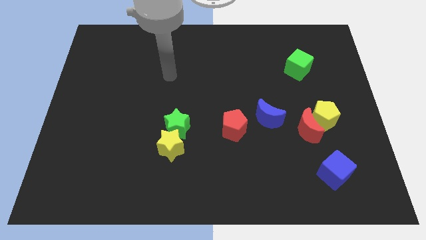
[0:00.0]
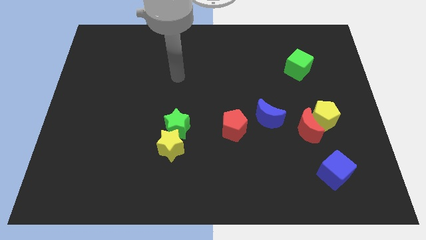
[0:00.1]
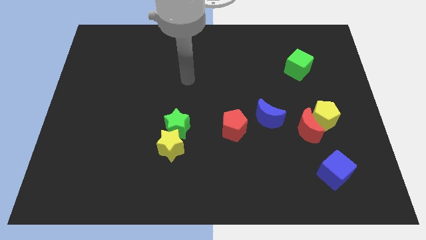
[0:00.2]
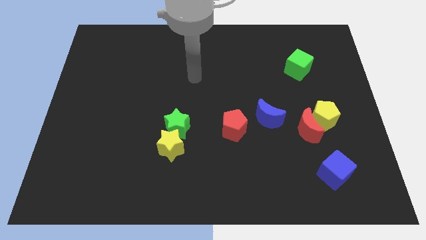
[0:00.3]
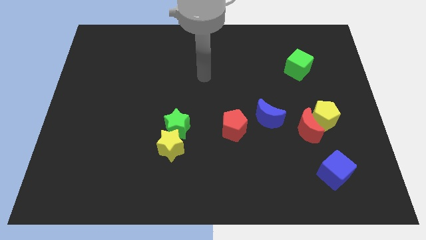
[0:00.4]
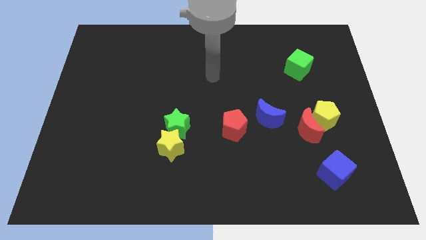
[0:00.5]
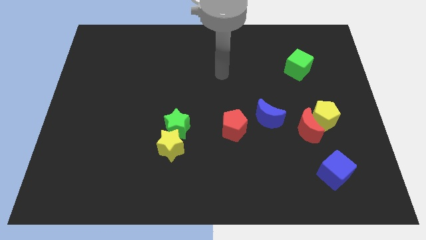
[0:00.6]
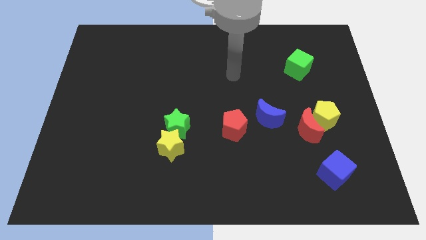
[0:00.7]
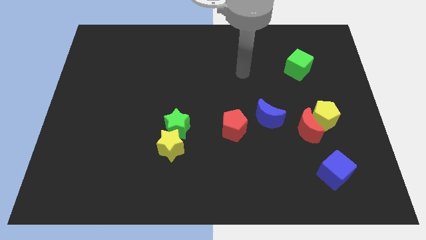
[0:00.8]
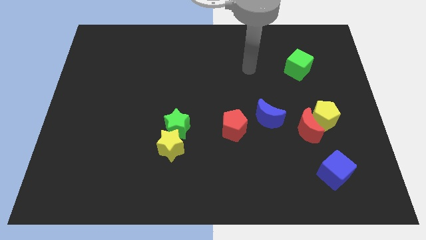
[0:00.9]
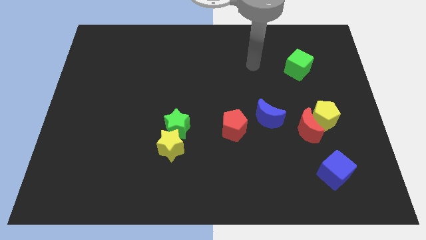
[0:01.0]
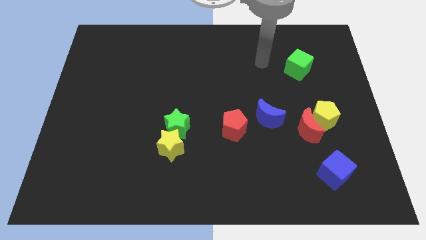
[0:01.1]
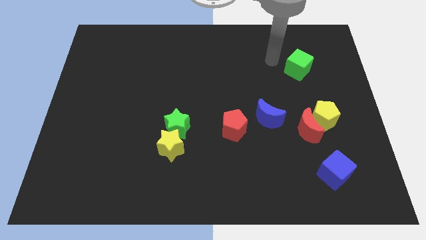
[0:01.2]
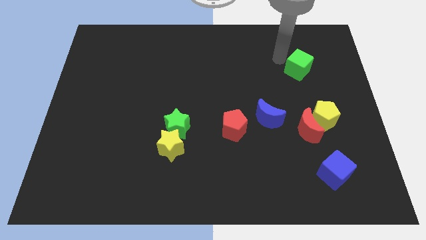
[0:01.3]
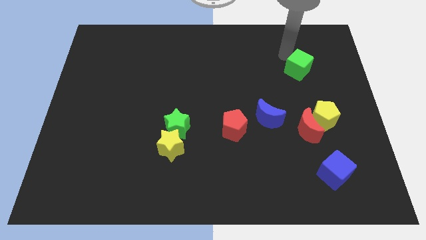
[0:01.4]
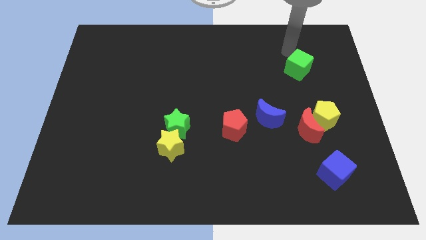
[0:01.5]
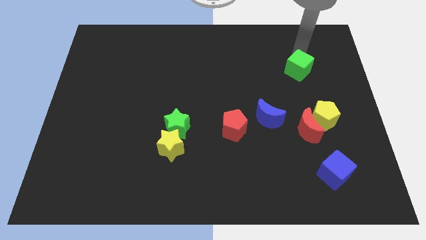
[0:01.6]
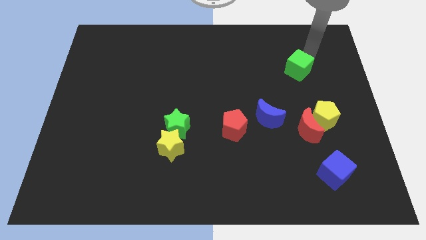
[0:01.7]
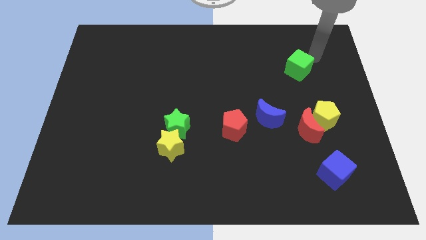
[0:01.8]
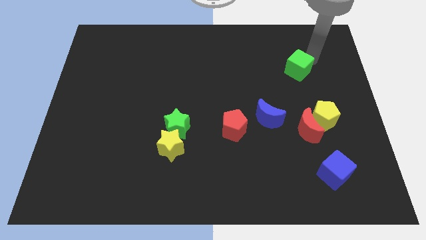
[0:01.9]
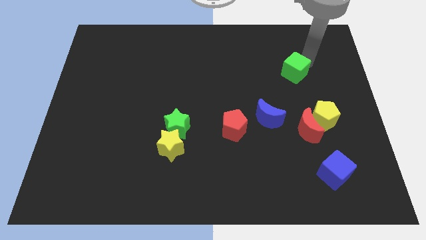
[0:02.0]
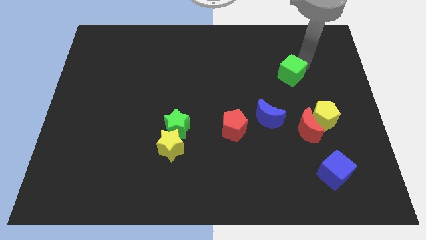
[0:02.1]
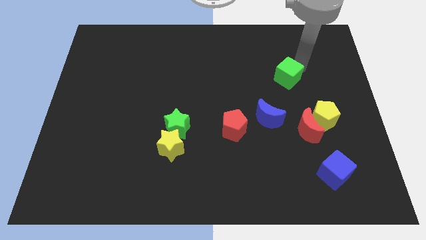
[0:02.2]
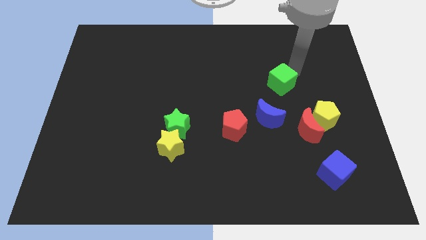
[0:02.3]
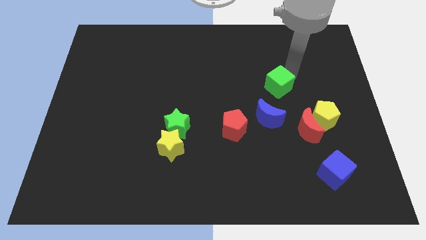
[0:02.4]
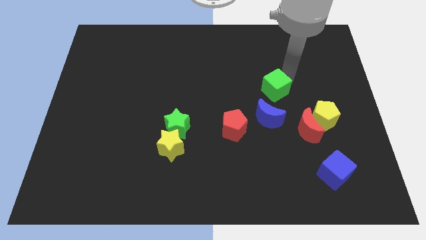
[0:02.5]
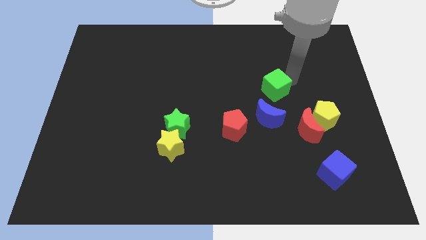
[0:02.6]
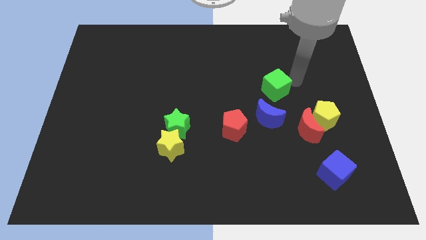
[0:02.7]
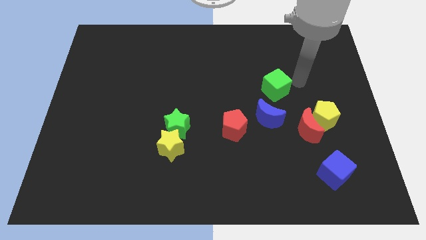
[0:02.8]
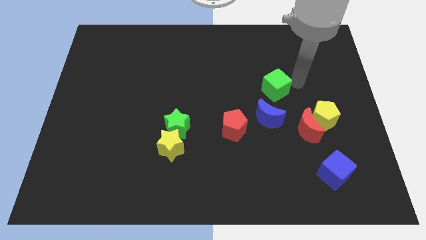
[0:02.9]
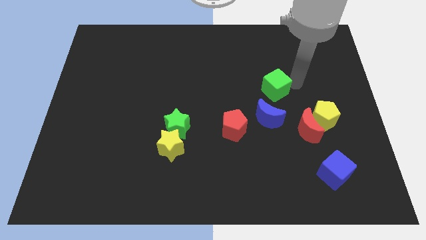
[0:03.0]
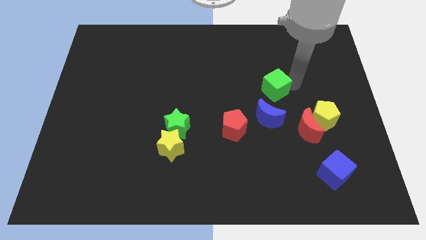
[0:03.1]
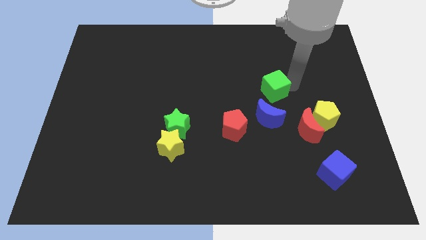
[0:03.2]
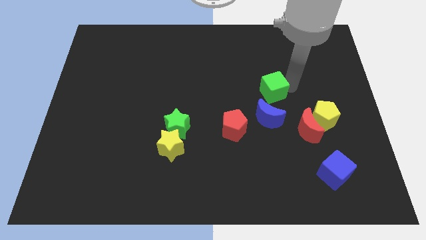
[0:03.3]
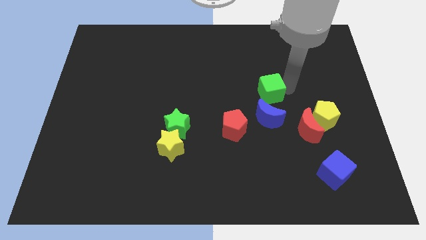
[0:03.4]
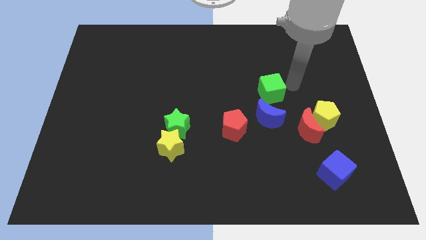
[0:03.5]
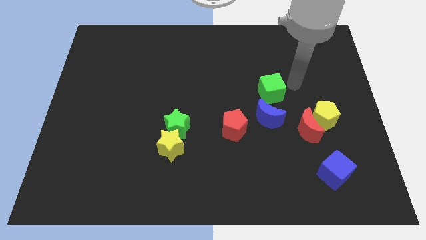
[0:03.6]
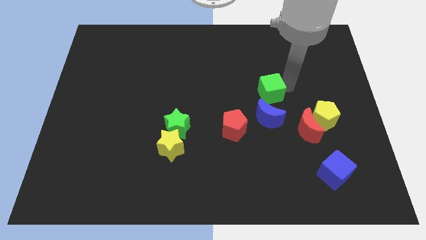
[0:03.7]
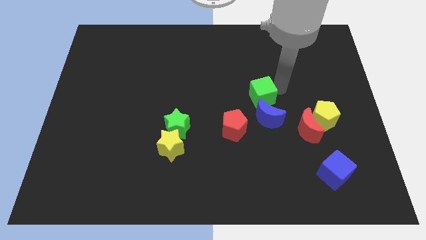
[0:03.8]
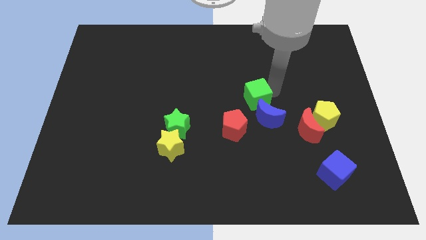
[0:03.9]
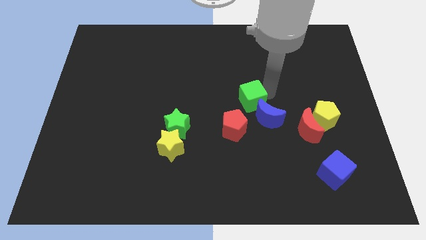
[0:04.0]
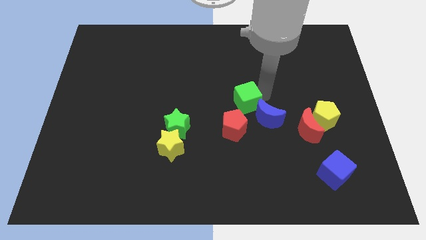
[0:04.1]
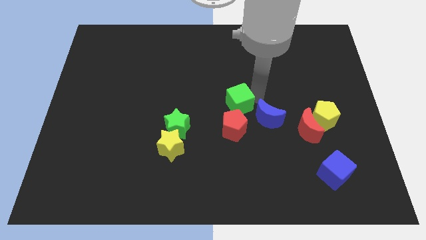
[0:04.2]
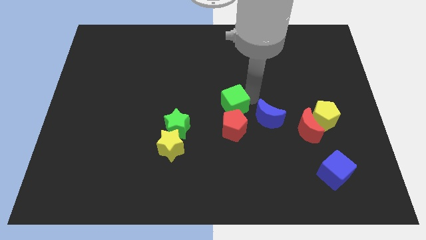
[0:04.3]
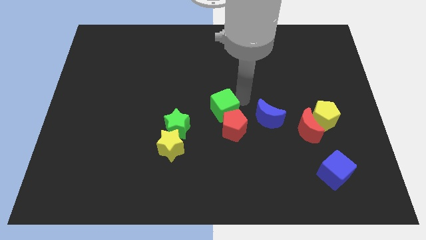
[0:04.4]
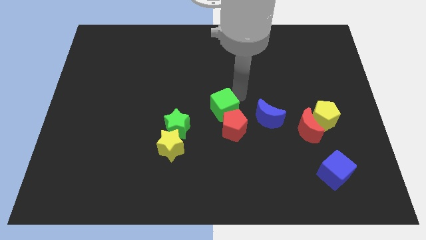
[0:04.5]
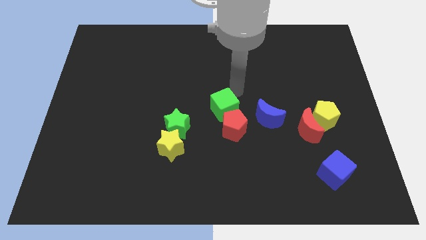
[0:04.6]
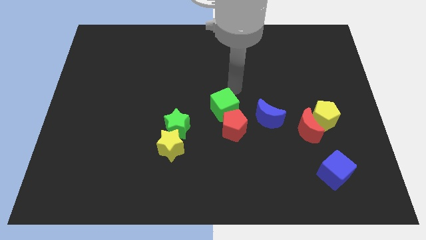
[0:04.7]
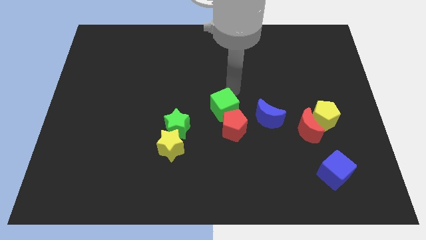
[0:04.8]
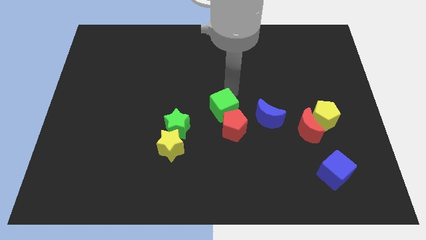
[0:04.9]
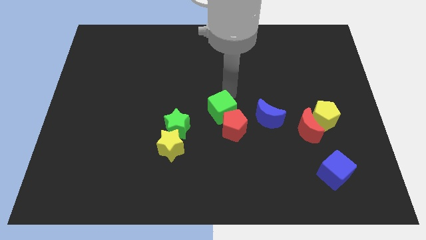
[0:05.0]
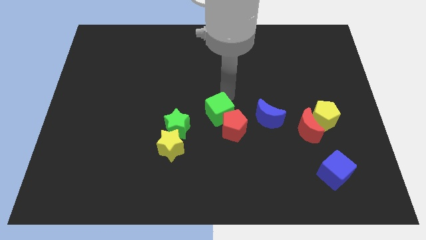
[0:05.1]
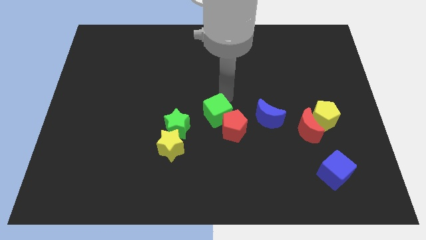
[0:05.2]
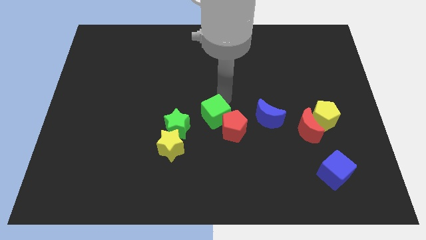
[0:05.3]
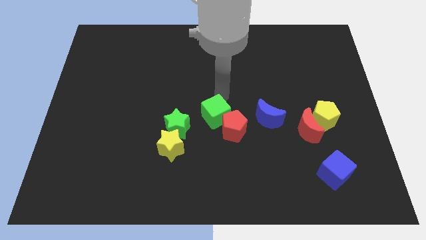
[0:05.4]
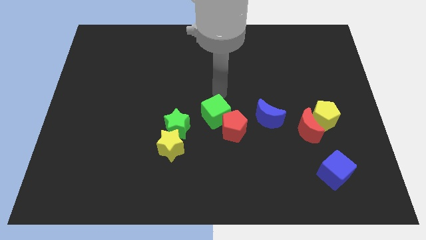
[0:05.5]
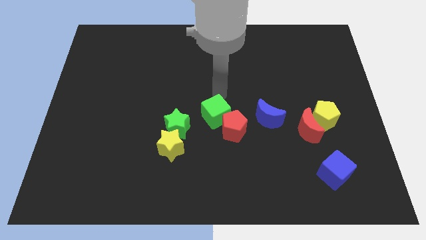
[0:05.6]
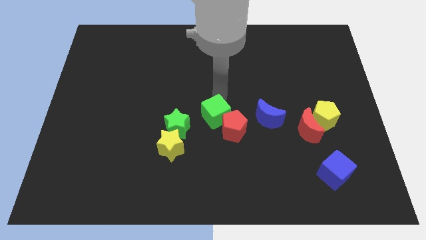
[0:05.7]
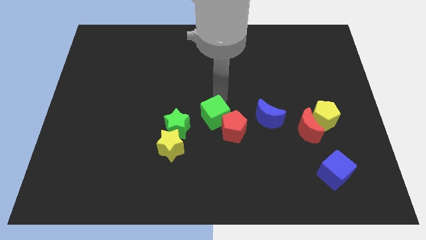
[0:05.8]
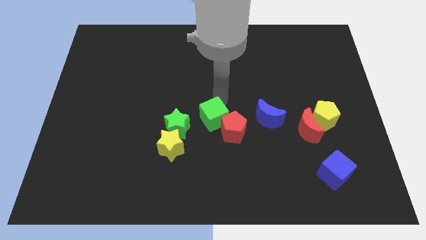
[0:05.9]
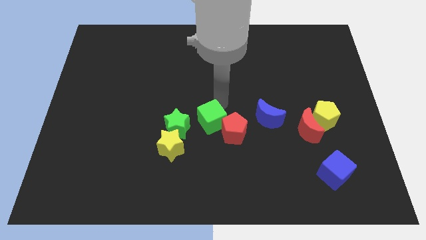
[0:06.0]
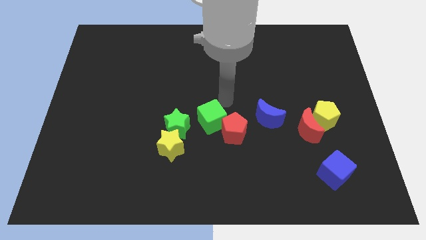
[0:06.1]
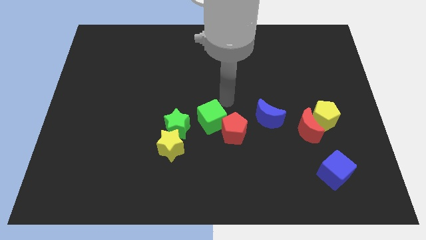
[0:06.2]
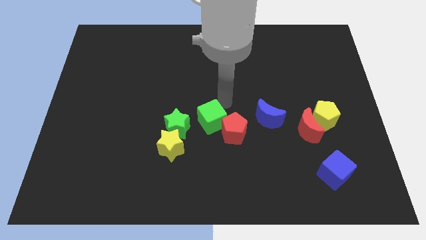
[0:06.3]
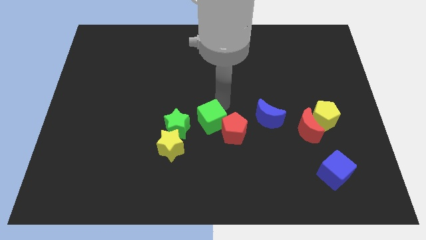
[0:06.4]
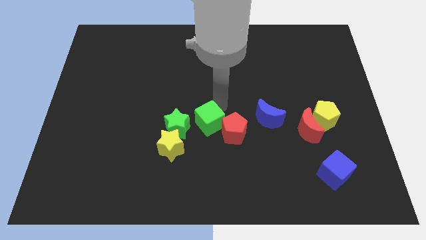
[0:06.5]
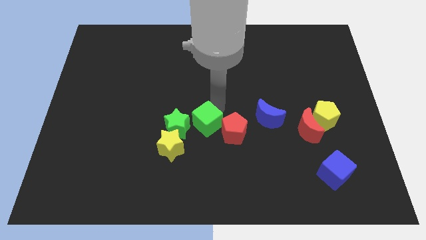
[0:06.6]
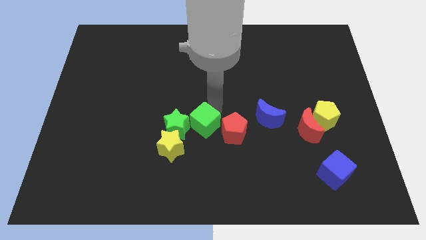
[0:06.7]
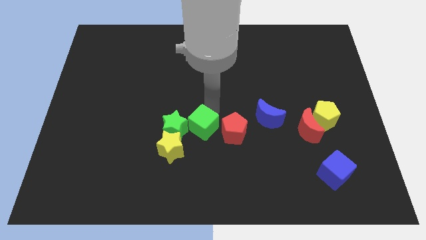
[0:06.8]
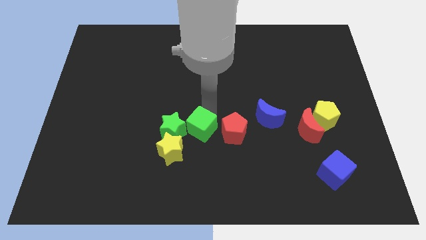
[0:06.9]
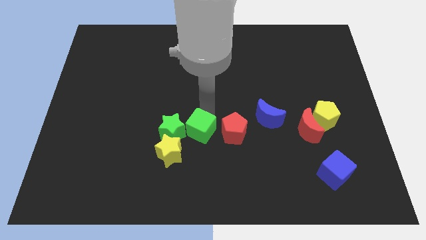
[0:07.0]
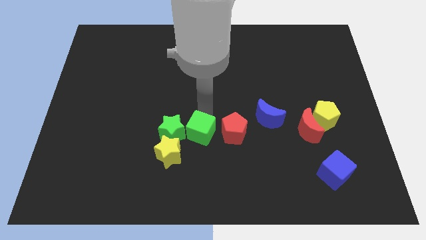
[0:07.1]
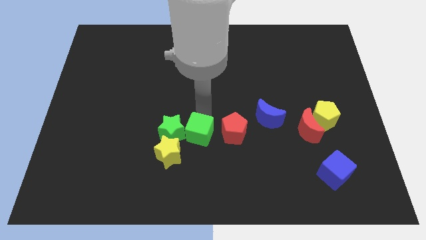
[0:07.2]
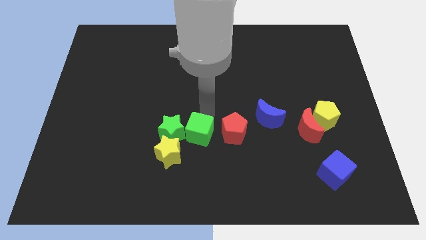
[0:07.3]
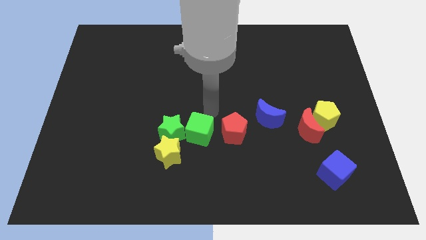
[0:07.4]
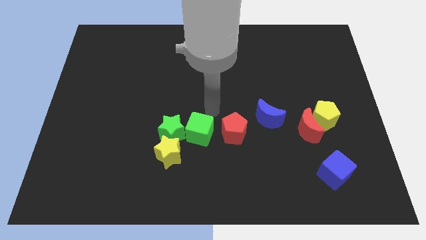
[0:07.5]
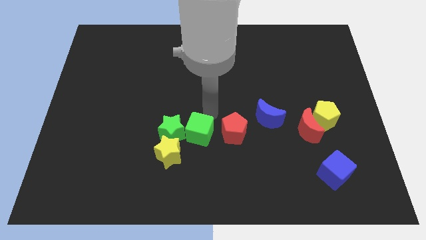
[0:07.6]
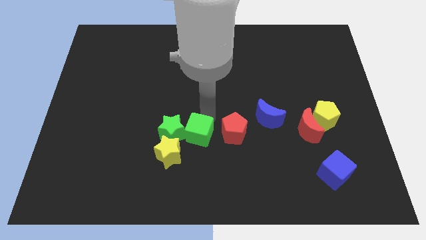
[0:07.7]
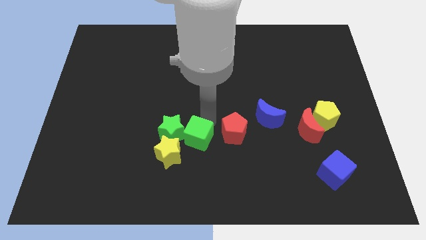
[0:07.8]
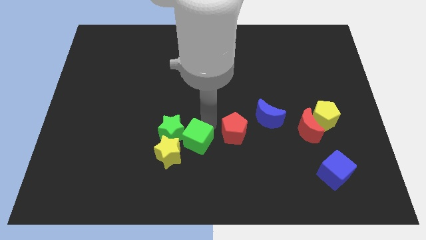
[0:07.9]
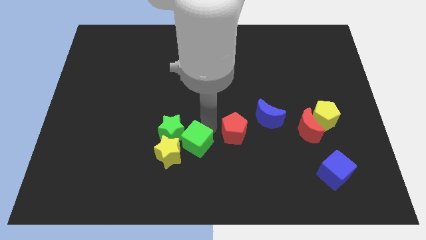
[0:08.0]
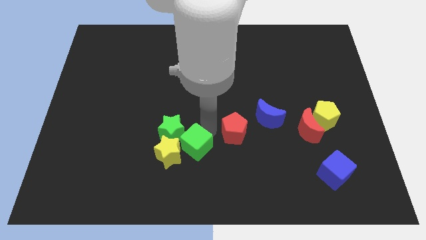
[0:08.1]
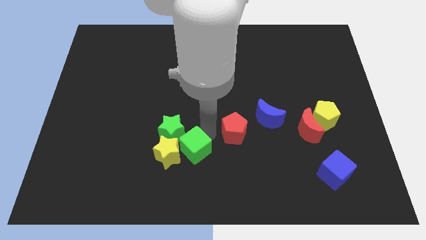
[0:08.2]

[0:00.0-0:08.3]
move the green cube next to the yellow star
